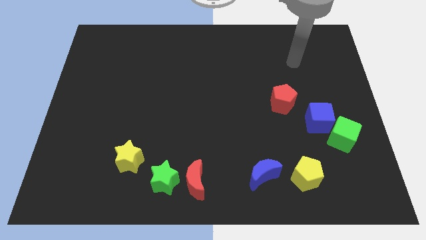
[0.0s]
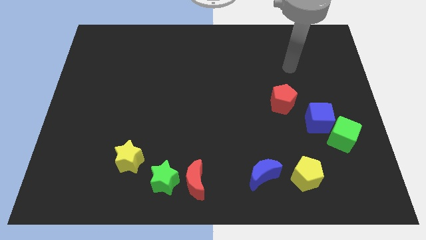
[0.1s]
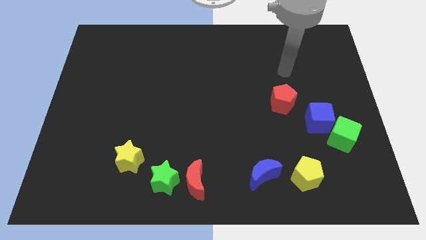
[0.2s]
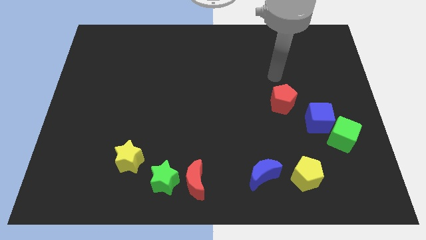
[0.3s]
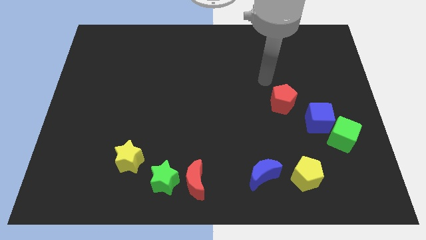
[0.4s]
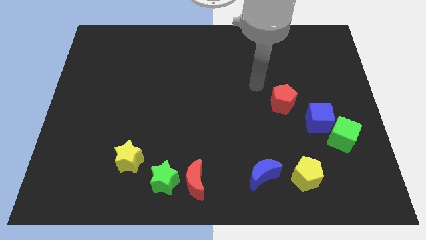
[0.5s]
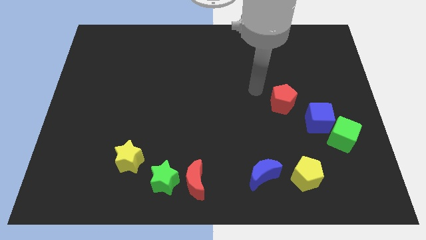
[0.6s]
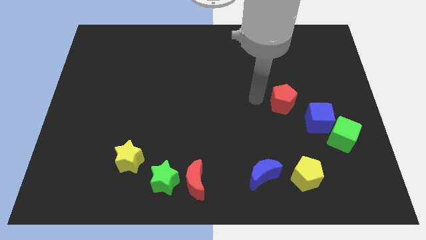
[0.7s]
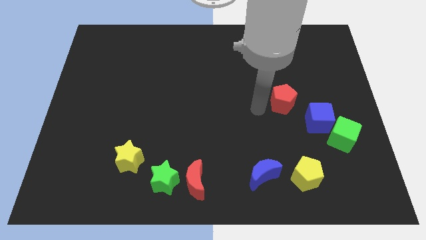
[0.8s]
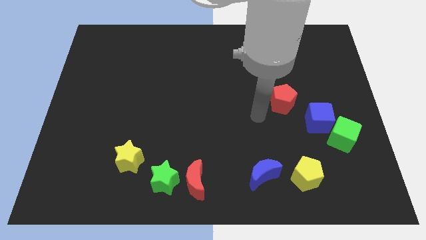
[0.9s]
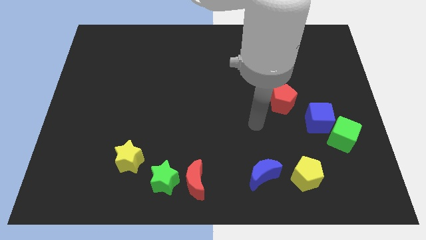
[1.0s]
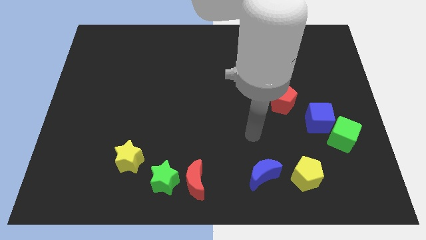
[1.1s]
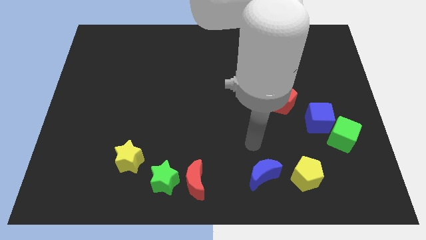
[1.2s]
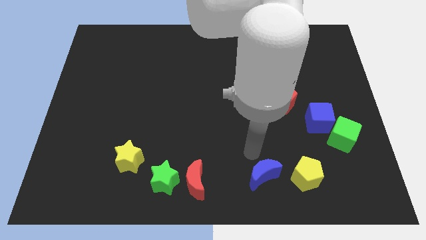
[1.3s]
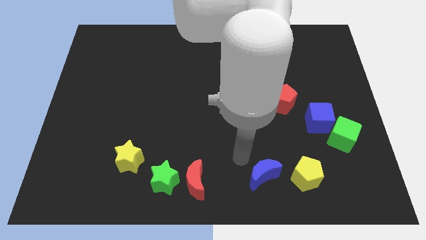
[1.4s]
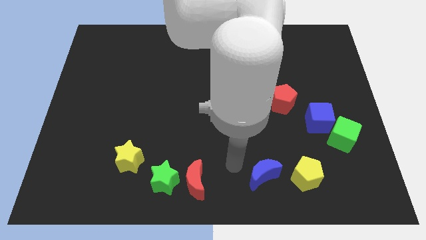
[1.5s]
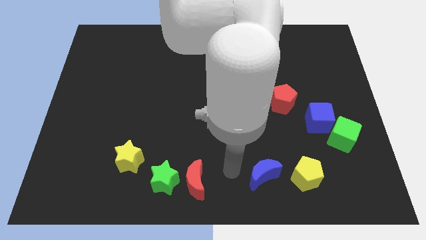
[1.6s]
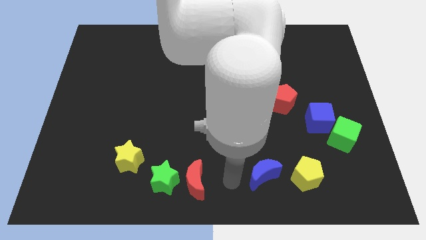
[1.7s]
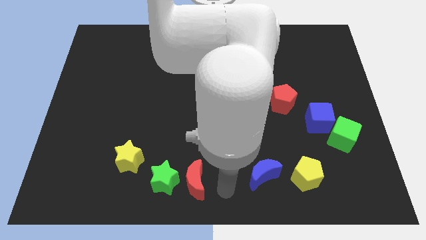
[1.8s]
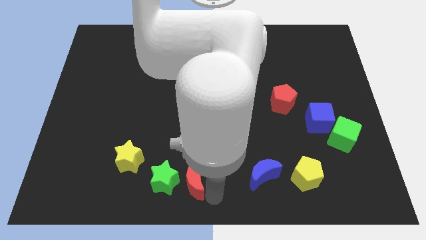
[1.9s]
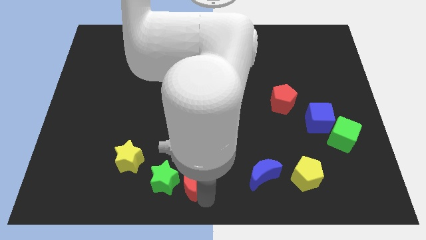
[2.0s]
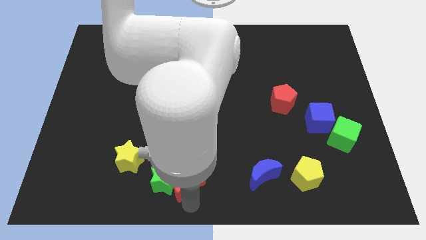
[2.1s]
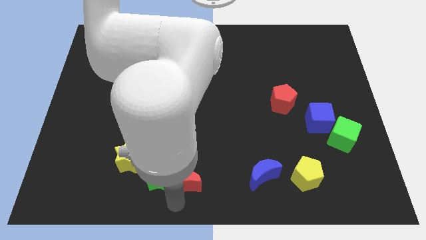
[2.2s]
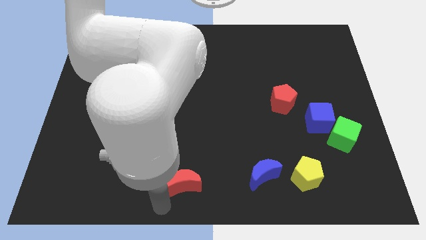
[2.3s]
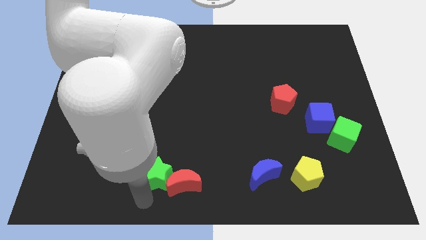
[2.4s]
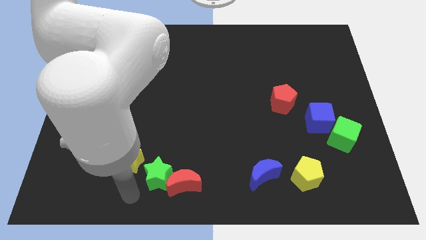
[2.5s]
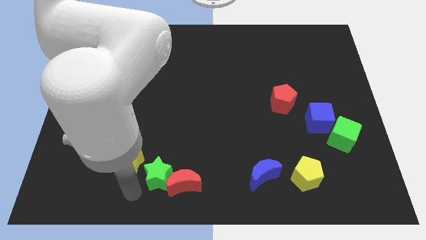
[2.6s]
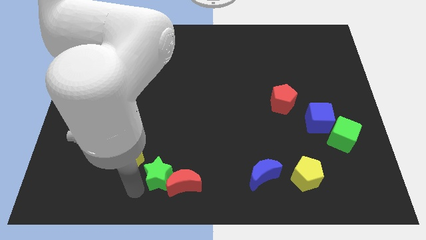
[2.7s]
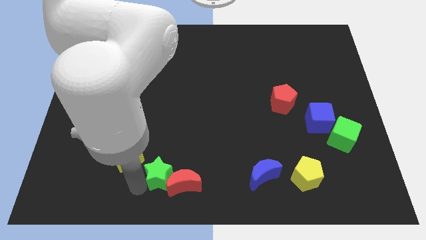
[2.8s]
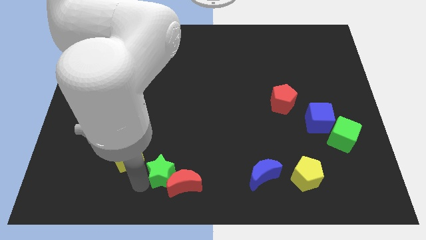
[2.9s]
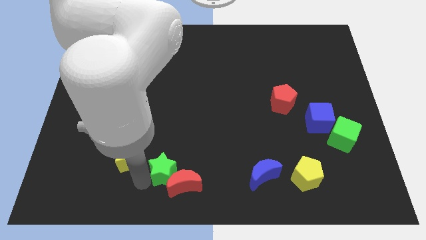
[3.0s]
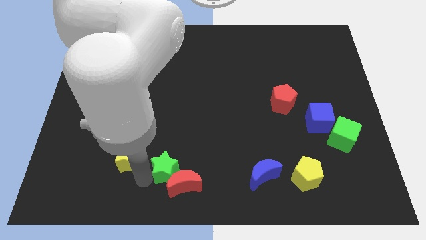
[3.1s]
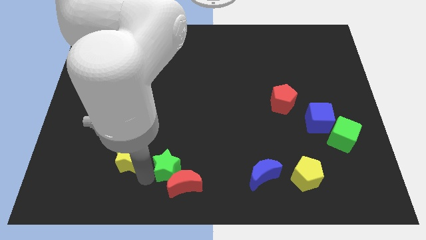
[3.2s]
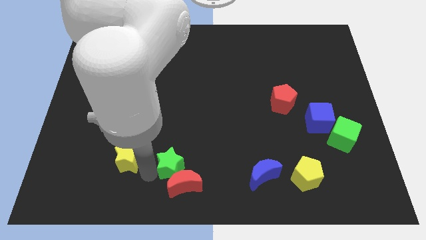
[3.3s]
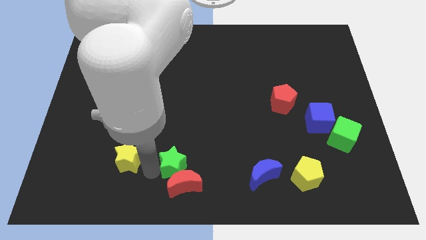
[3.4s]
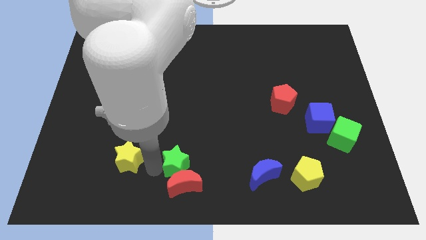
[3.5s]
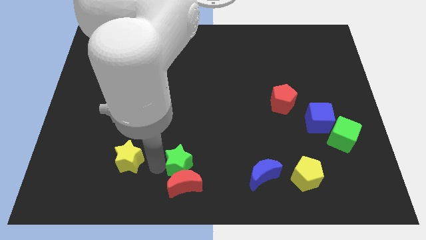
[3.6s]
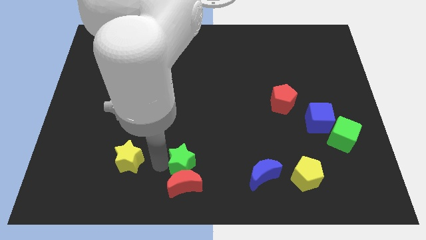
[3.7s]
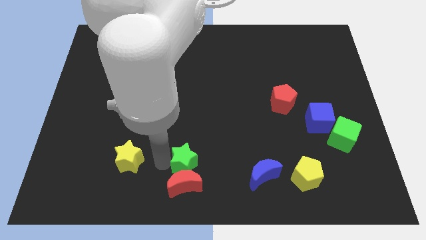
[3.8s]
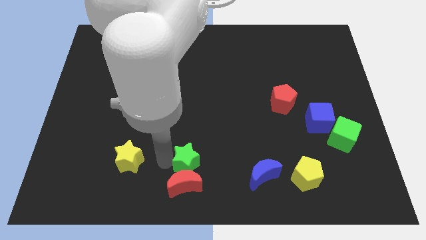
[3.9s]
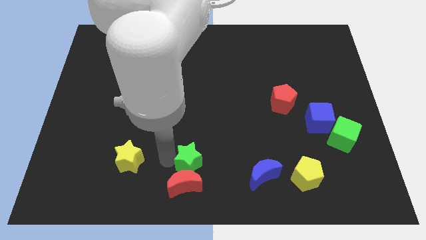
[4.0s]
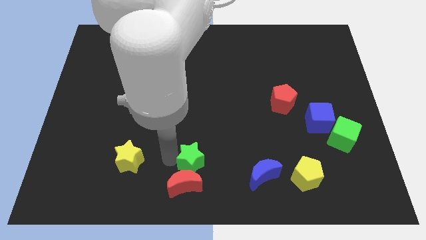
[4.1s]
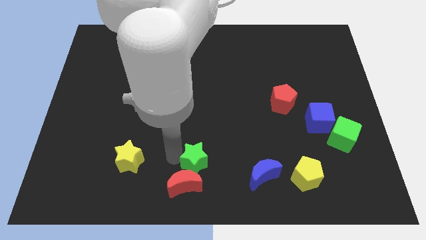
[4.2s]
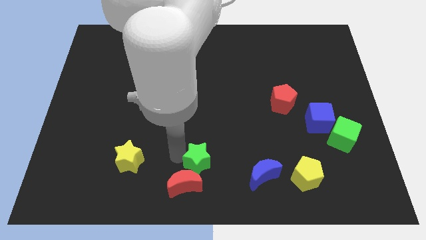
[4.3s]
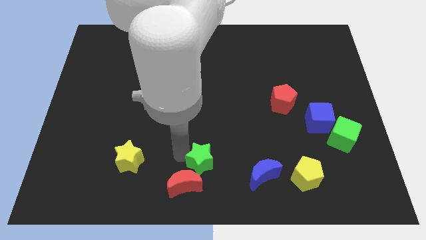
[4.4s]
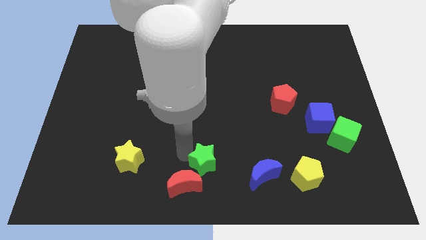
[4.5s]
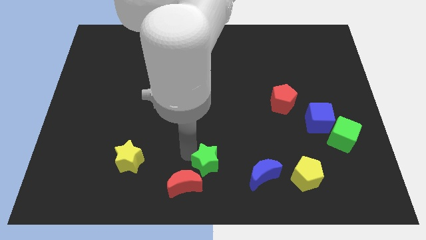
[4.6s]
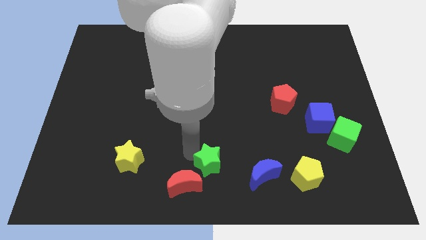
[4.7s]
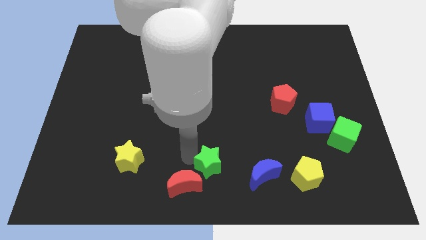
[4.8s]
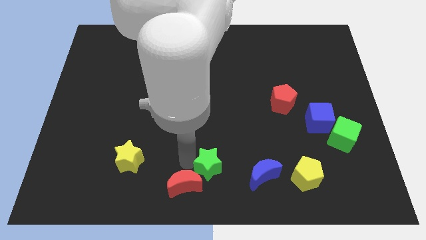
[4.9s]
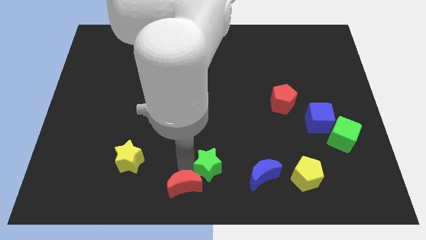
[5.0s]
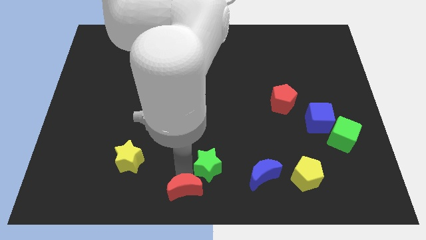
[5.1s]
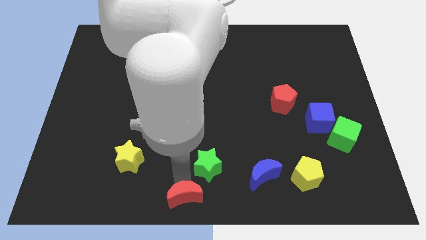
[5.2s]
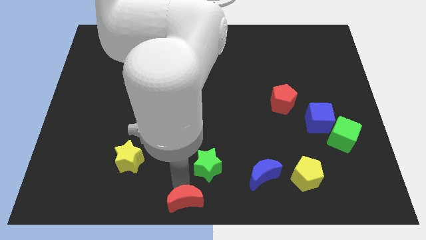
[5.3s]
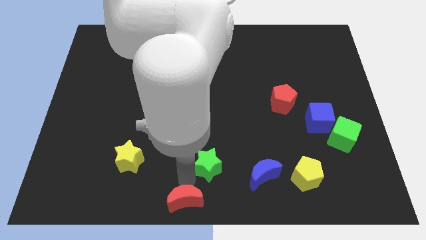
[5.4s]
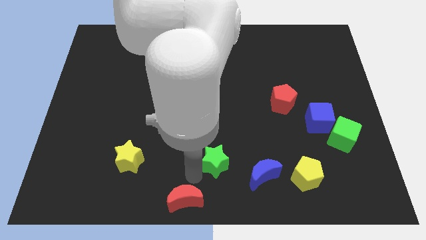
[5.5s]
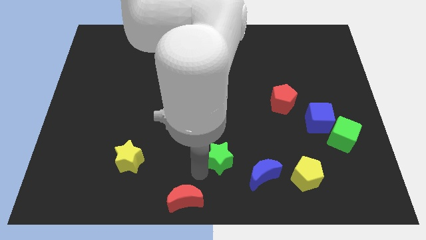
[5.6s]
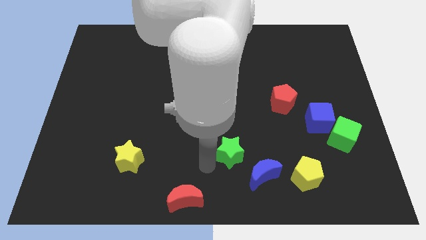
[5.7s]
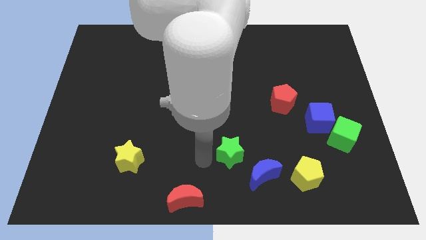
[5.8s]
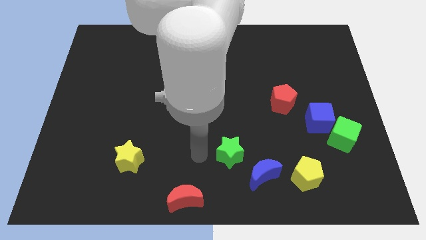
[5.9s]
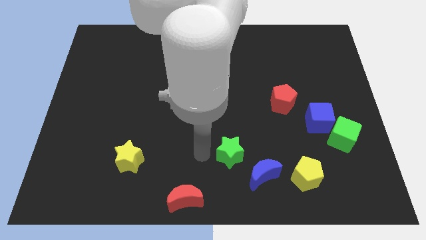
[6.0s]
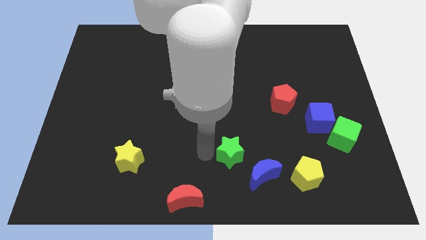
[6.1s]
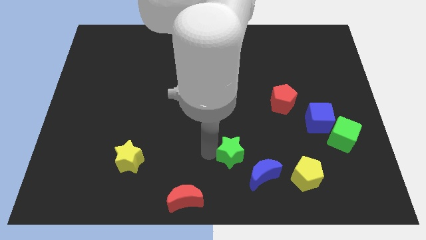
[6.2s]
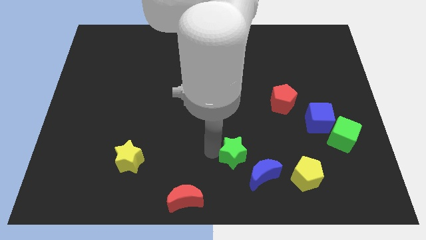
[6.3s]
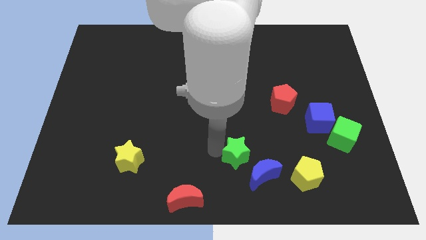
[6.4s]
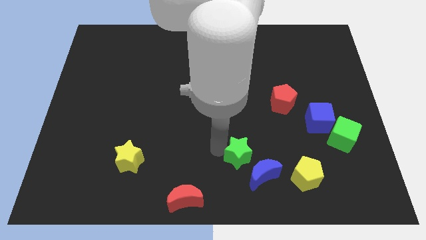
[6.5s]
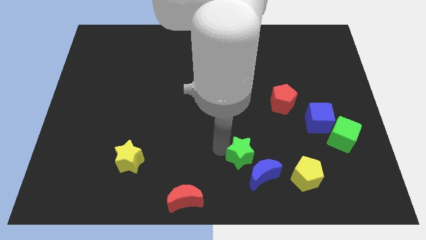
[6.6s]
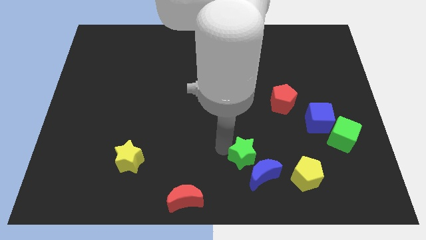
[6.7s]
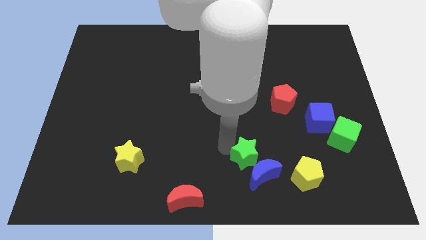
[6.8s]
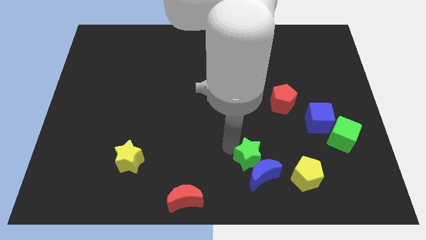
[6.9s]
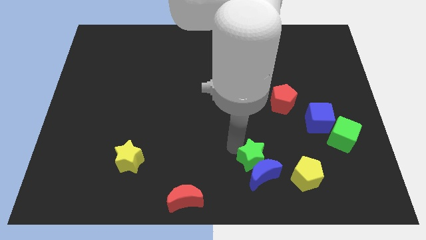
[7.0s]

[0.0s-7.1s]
push the green star diagonally up and to the right of the blue moon

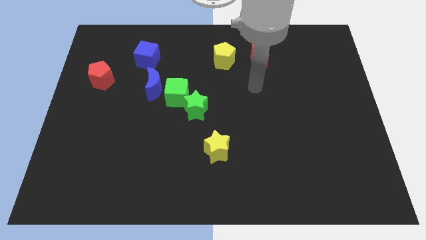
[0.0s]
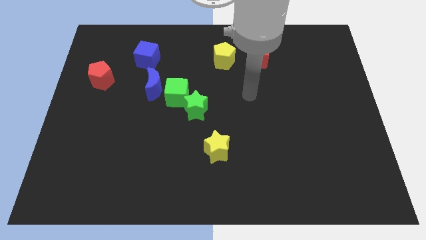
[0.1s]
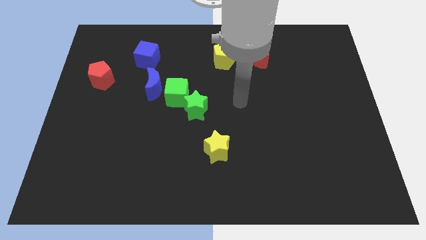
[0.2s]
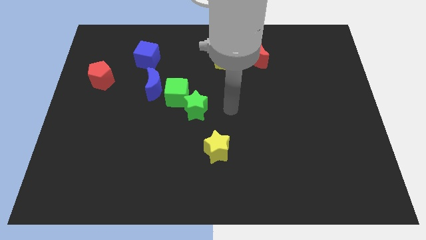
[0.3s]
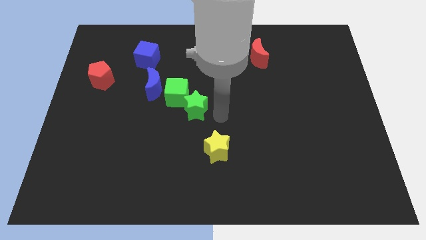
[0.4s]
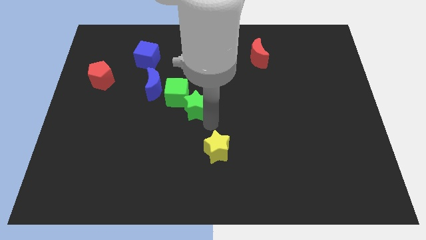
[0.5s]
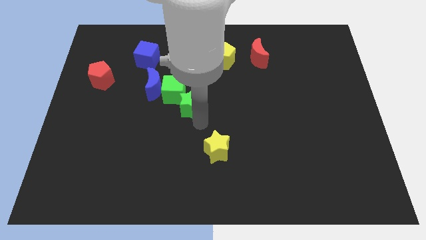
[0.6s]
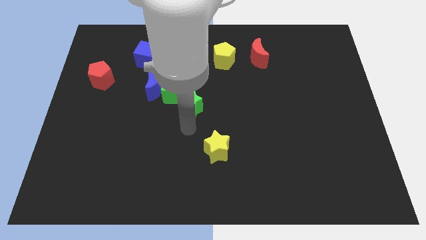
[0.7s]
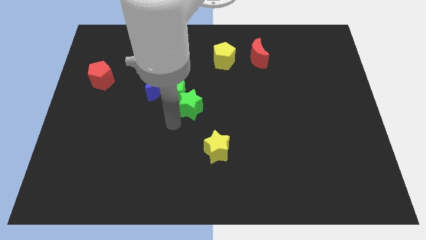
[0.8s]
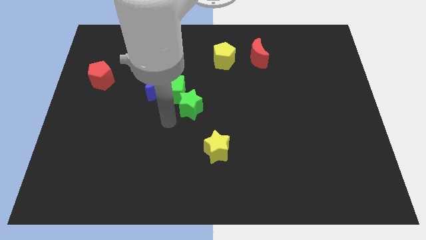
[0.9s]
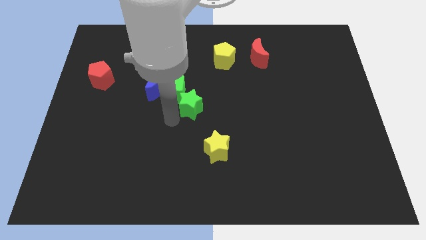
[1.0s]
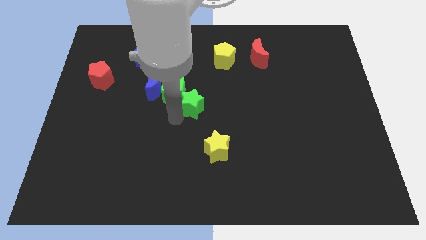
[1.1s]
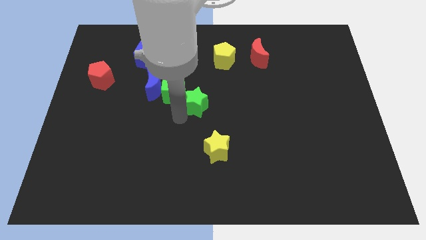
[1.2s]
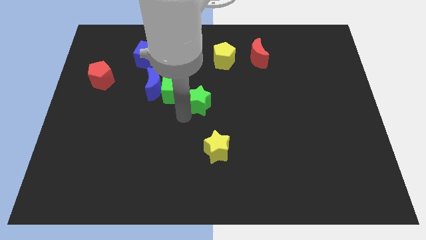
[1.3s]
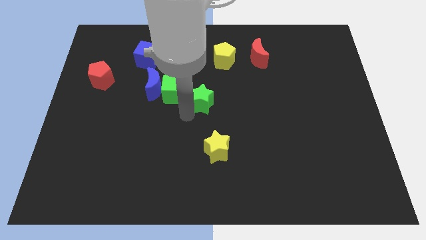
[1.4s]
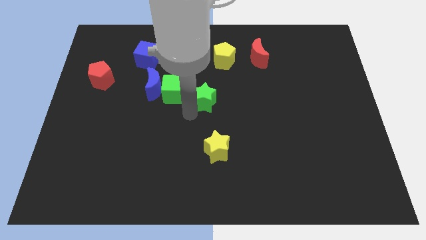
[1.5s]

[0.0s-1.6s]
push the green star to the bottom of the yellow pentagon
